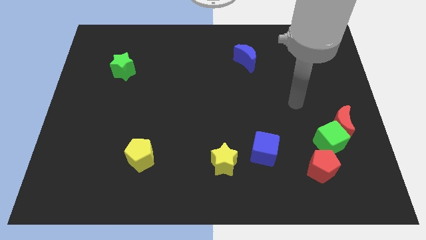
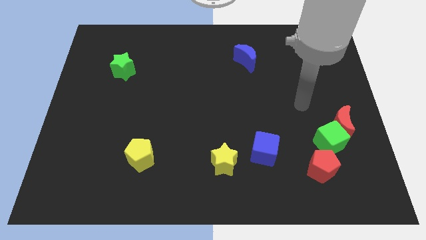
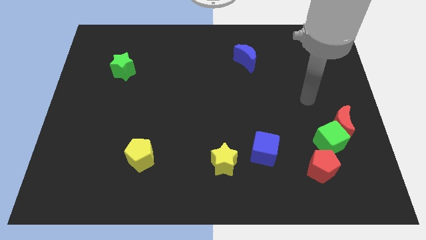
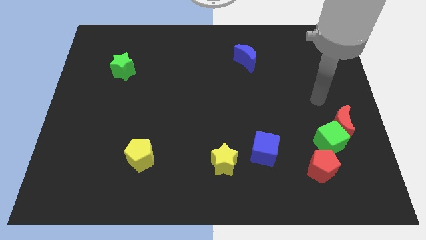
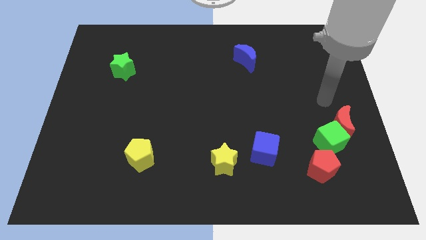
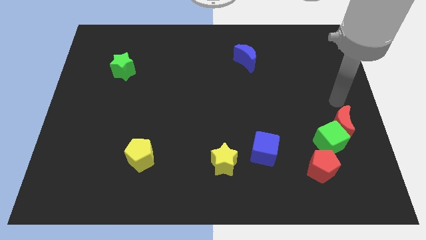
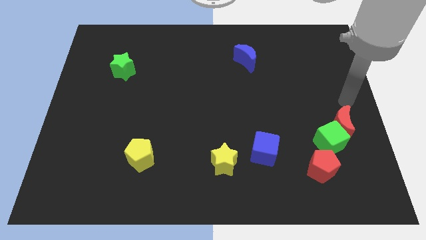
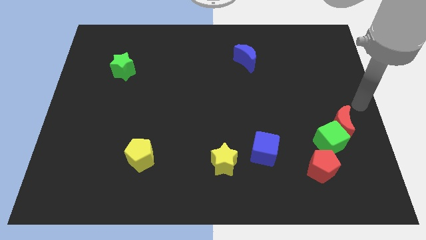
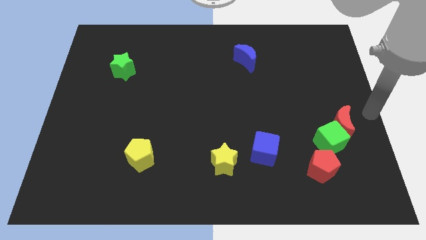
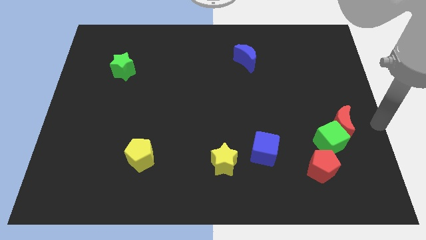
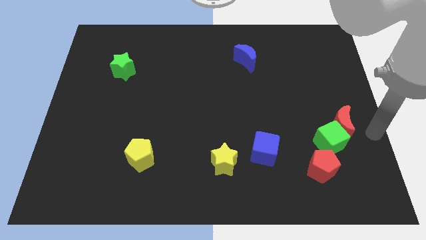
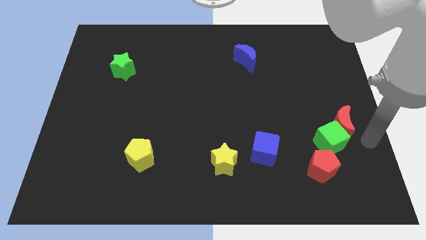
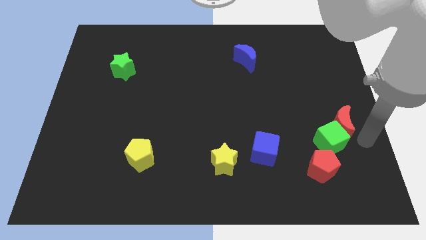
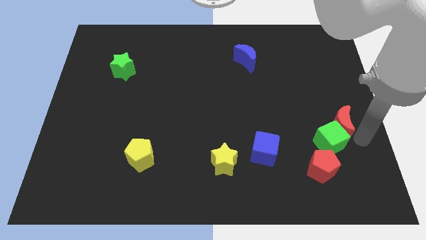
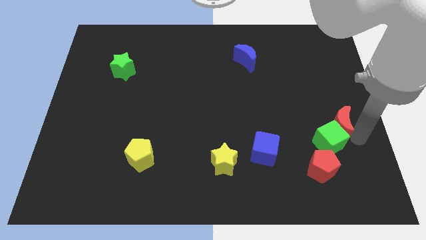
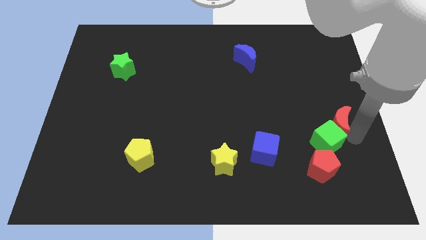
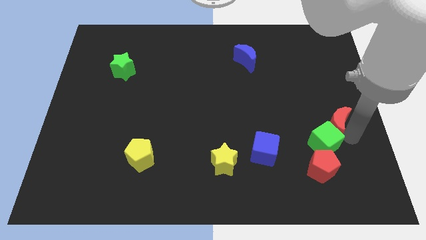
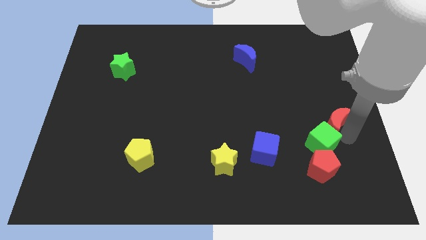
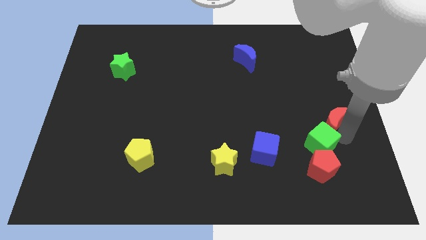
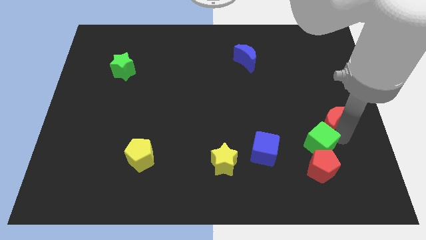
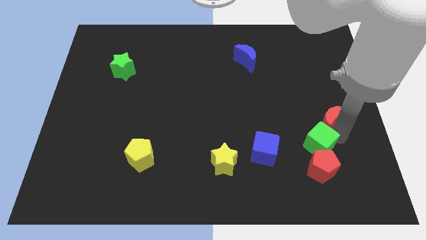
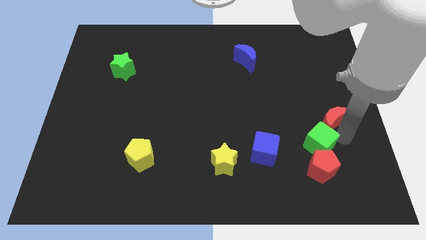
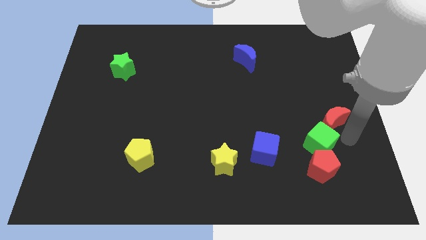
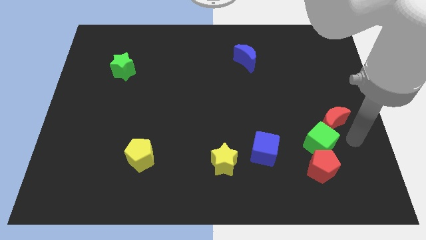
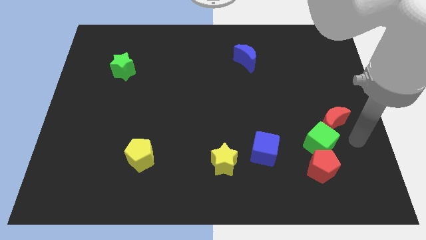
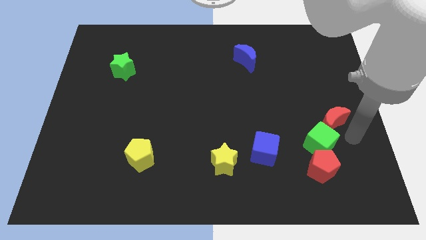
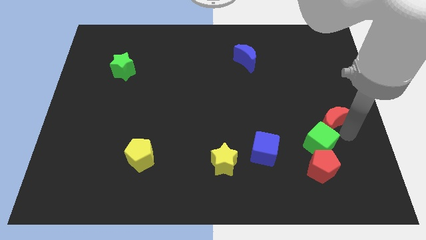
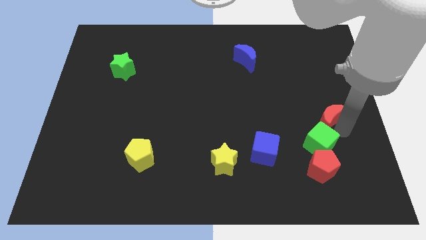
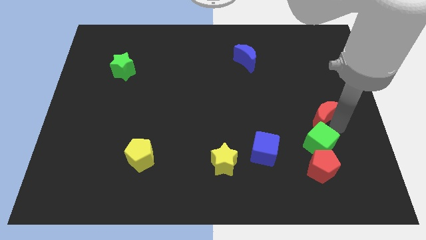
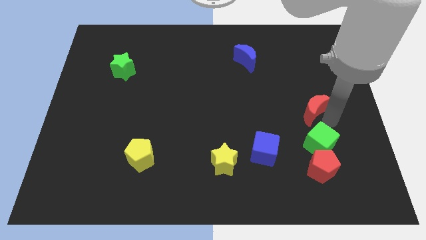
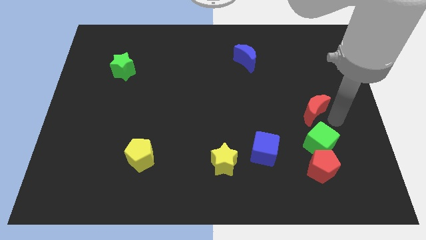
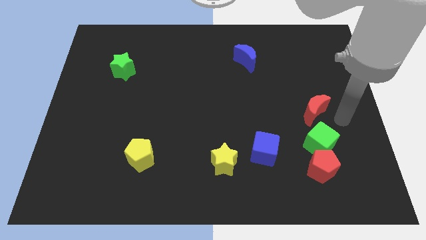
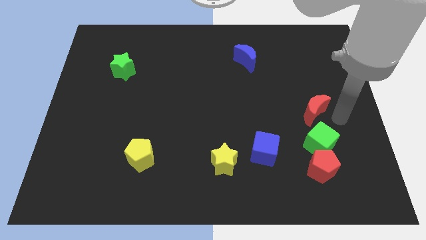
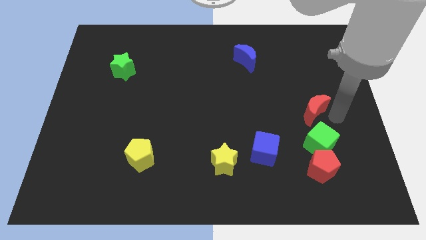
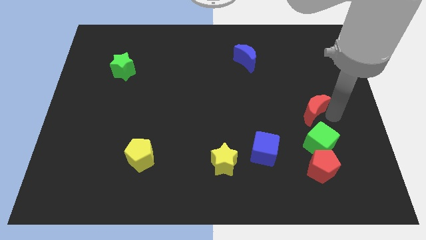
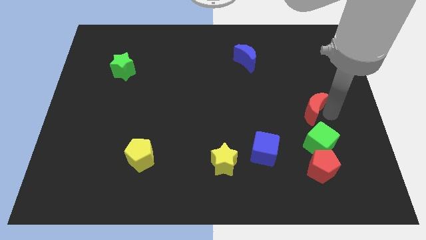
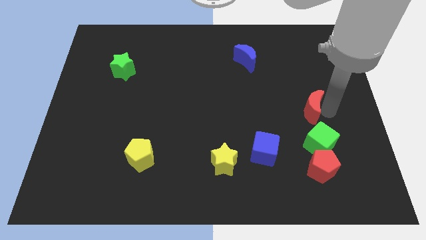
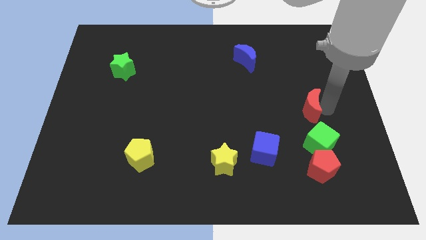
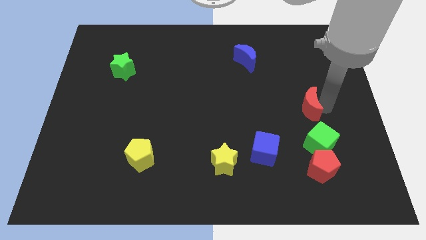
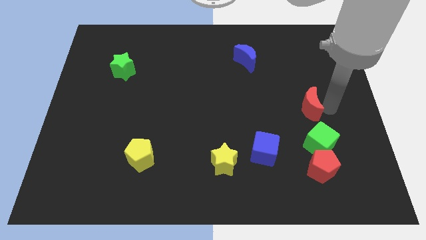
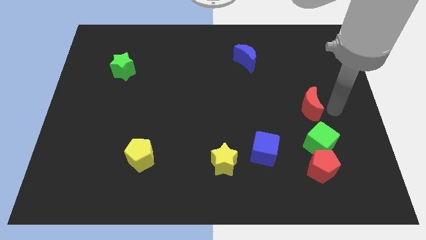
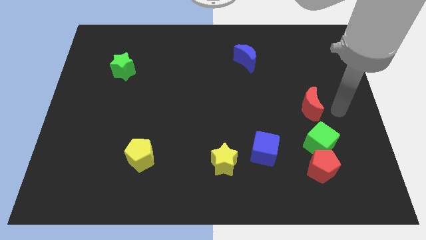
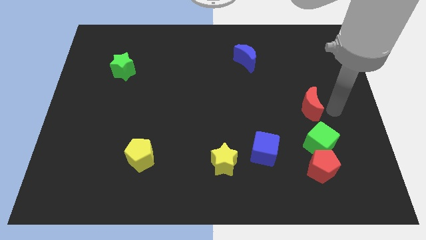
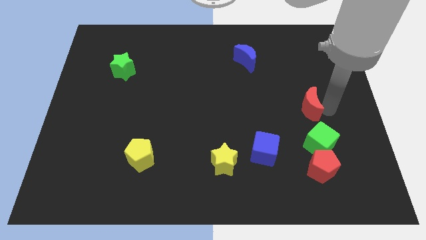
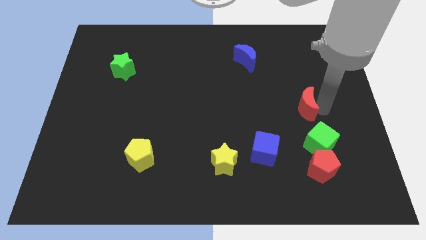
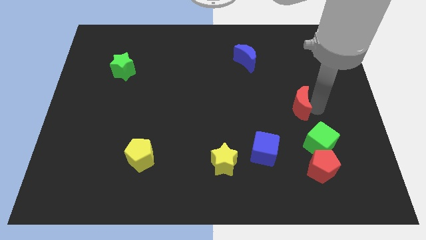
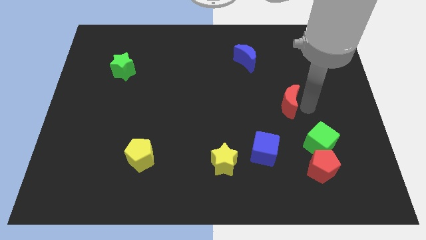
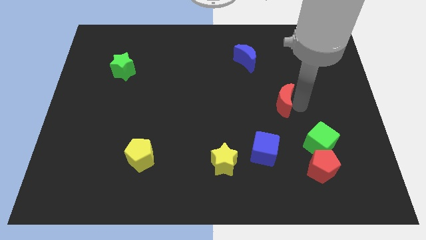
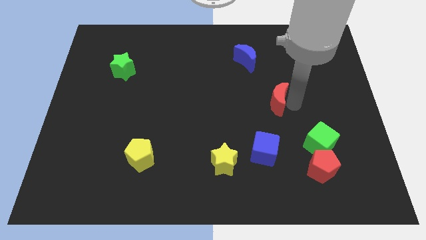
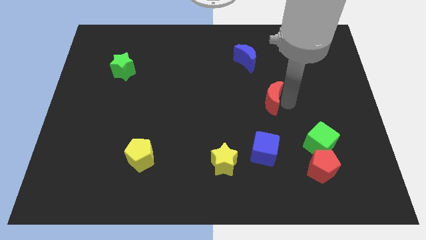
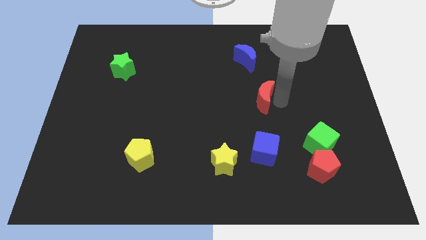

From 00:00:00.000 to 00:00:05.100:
put the red moon to the middle

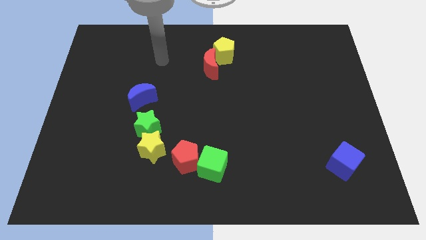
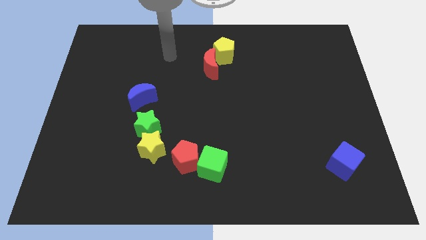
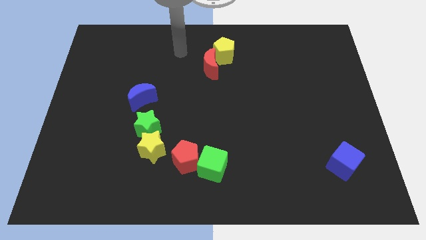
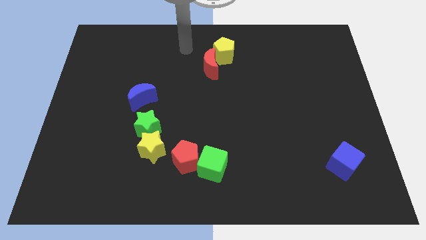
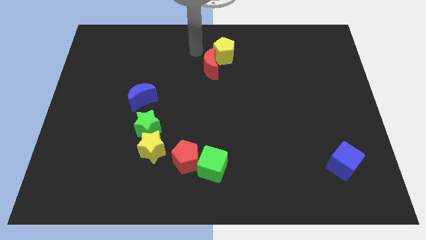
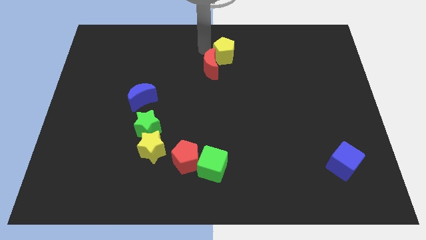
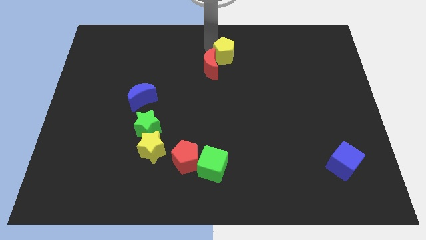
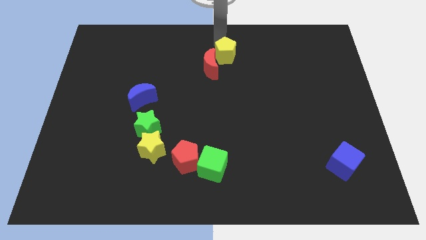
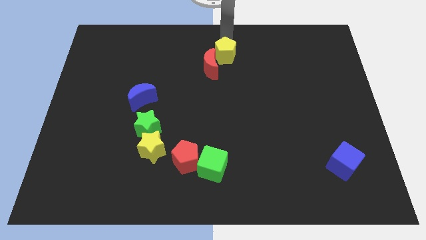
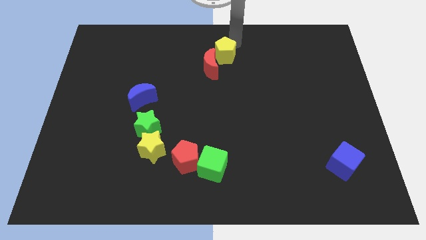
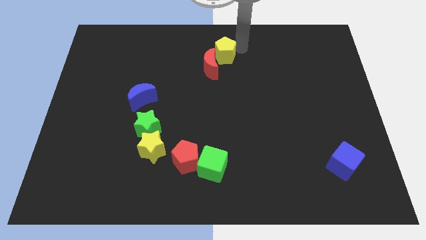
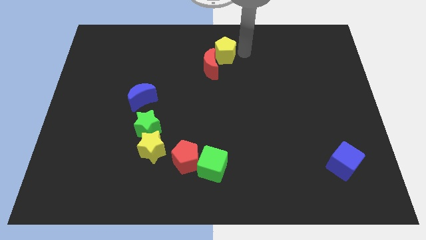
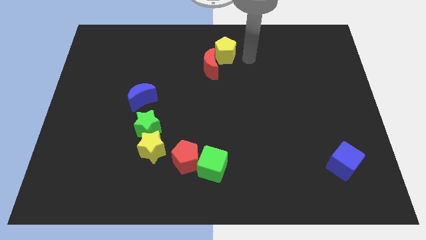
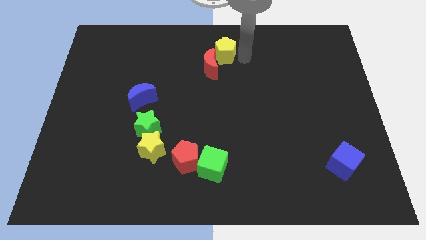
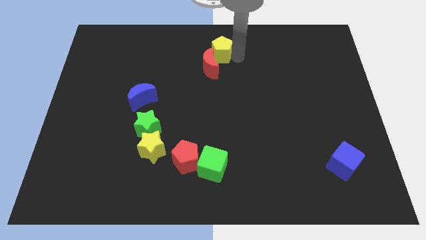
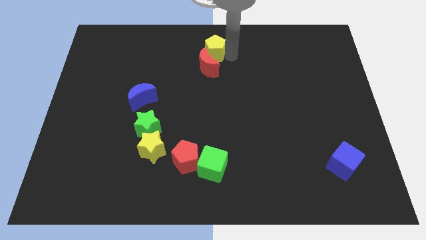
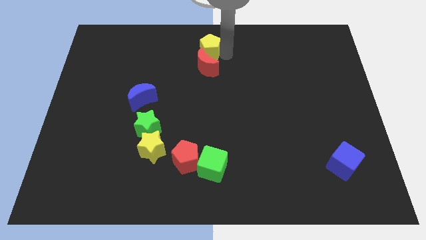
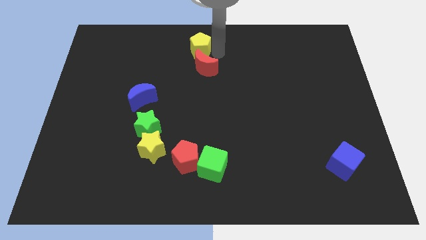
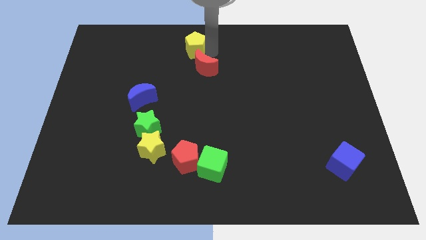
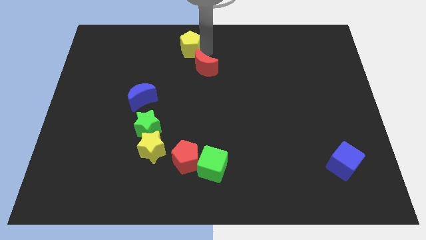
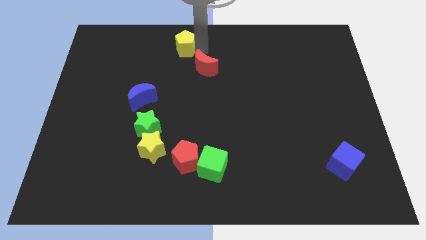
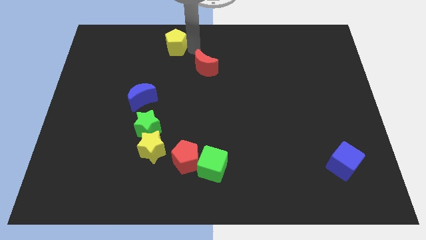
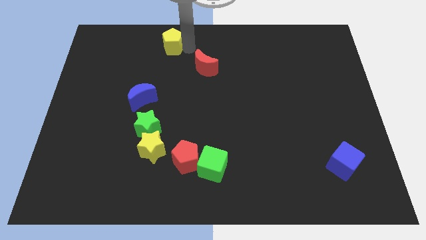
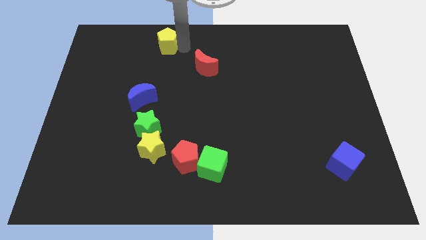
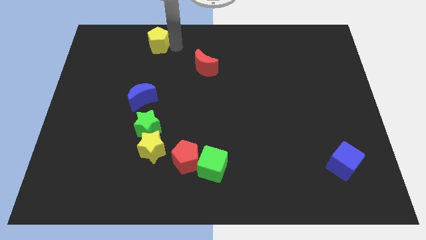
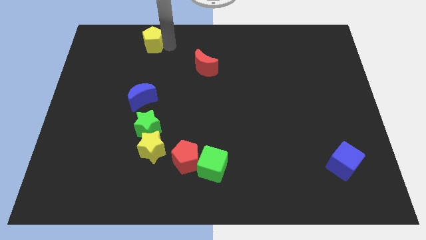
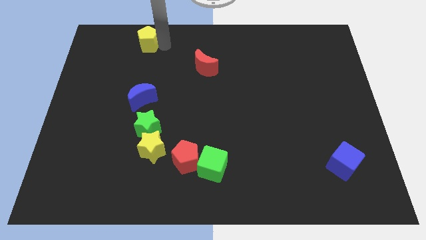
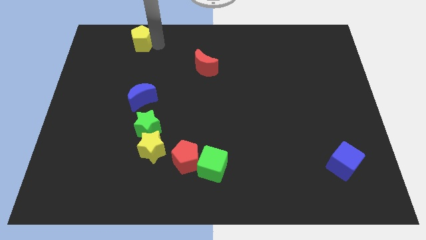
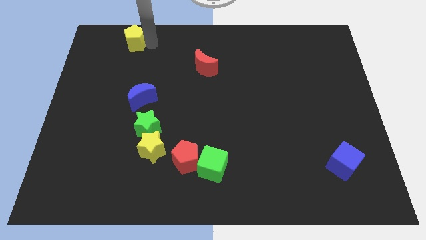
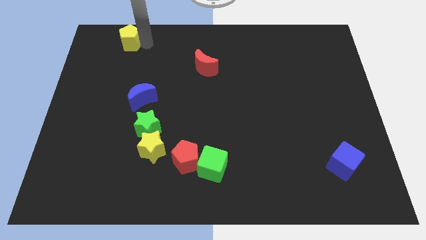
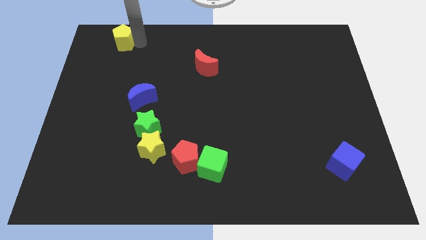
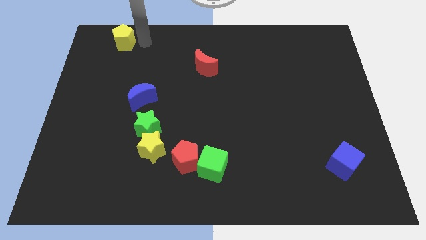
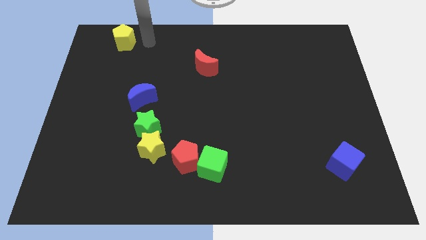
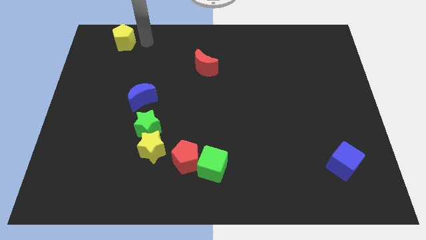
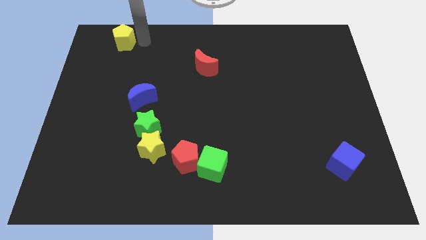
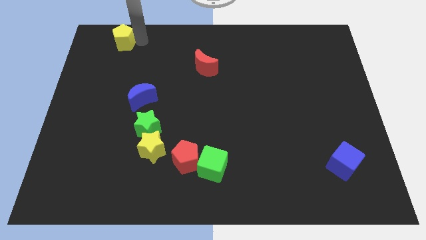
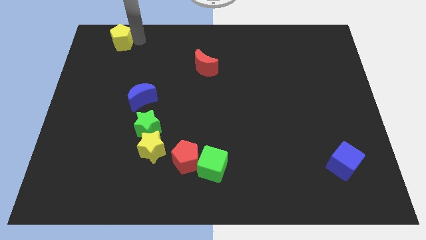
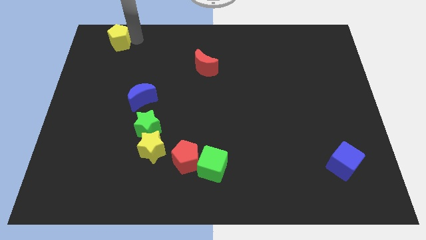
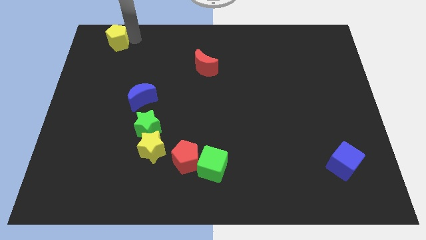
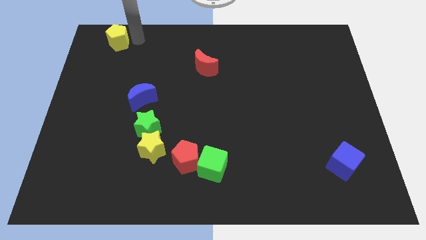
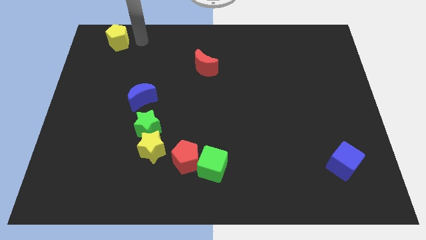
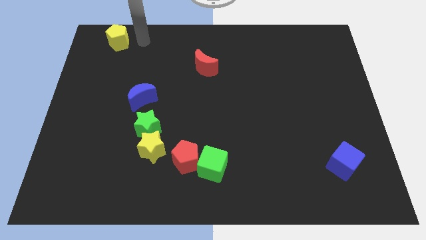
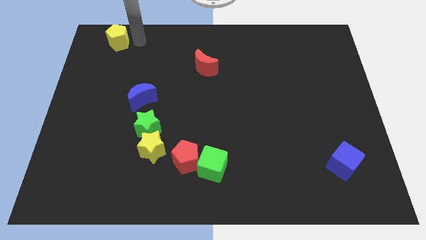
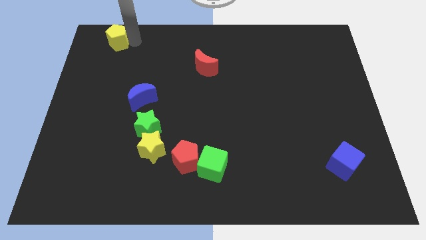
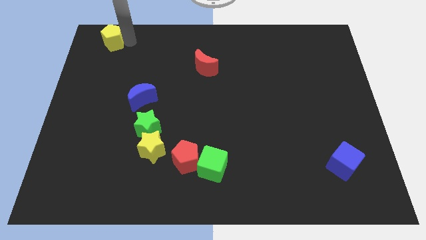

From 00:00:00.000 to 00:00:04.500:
slide the yellow pentagon to the top left of the board
